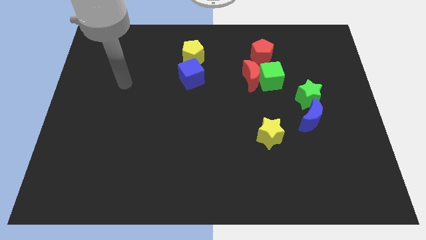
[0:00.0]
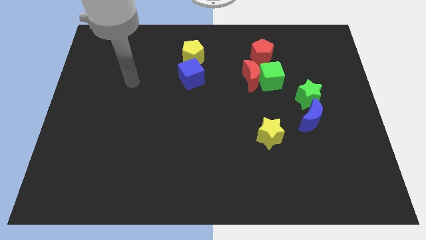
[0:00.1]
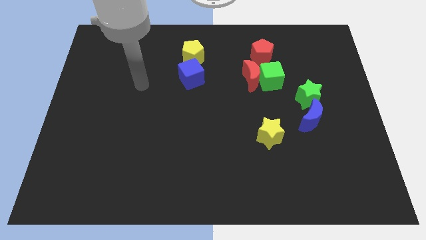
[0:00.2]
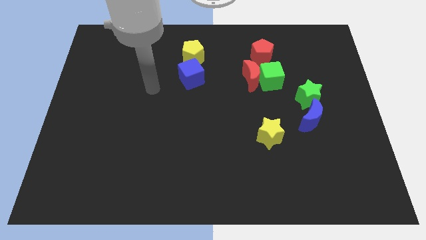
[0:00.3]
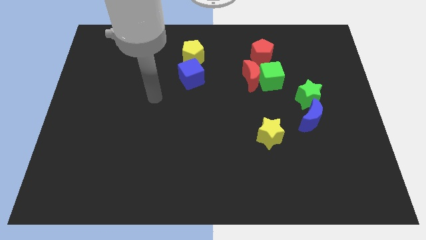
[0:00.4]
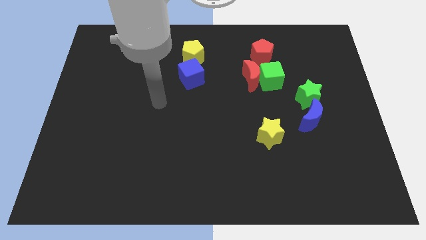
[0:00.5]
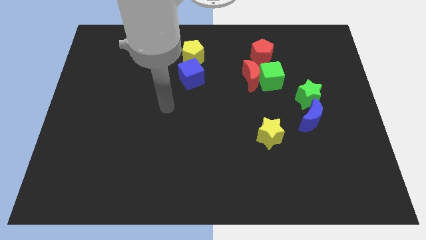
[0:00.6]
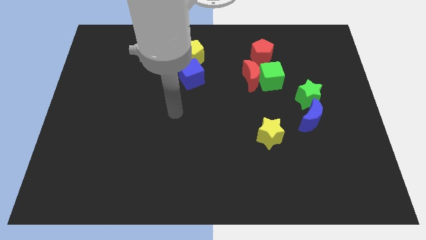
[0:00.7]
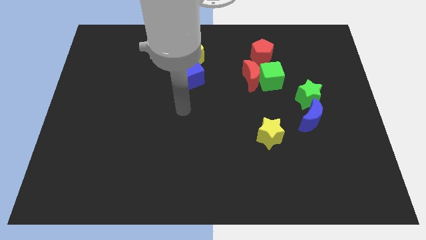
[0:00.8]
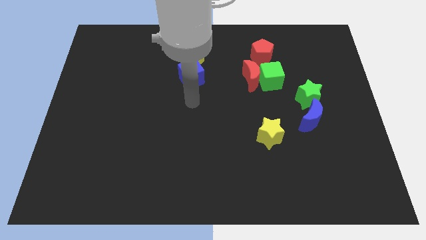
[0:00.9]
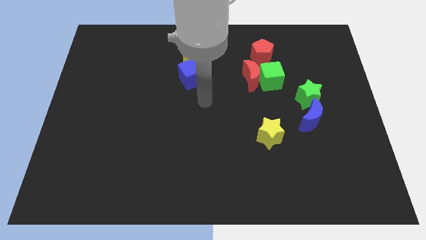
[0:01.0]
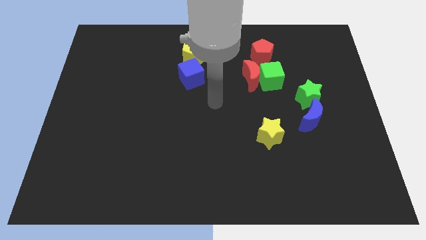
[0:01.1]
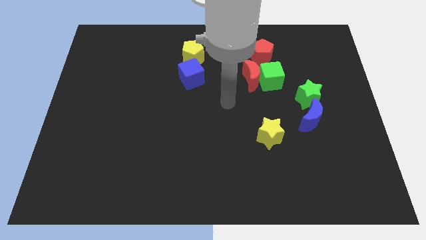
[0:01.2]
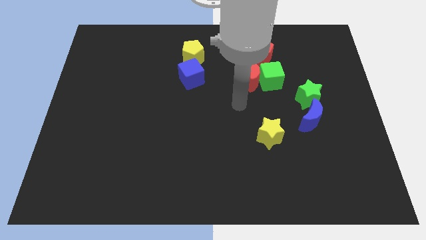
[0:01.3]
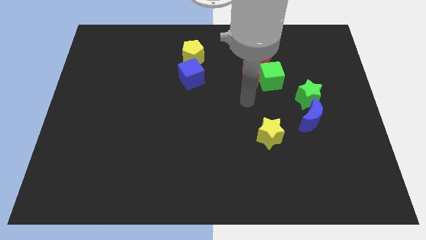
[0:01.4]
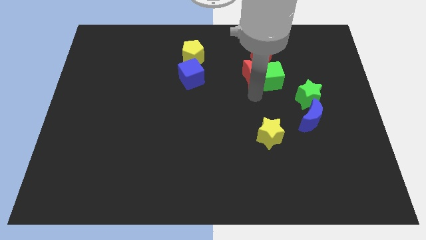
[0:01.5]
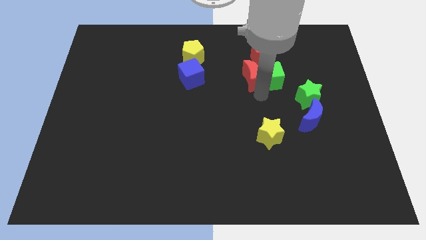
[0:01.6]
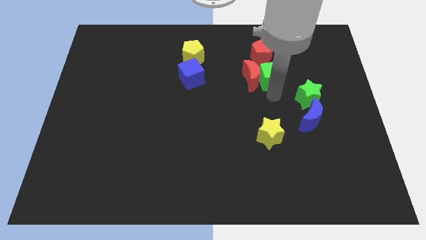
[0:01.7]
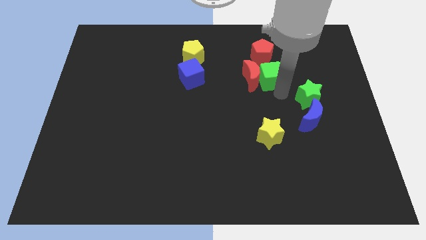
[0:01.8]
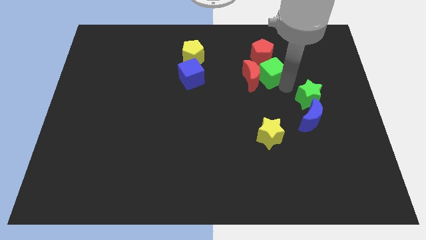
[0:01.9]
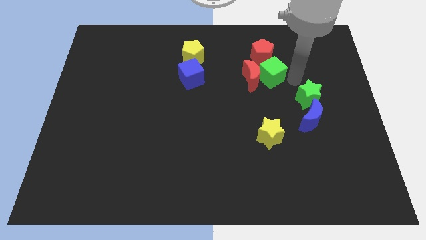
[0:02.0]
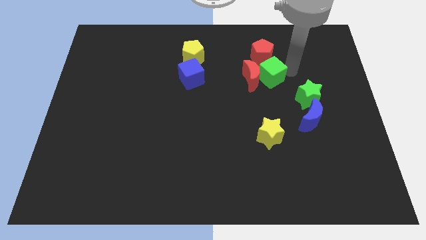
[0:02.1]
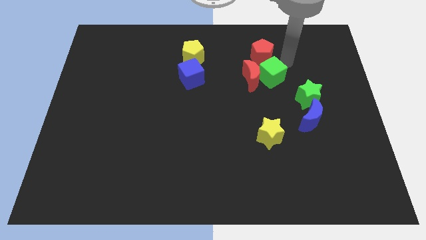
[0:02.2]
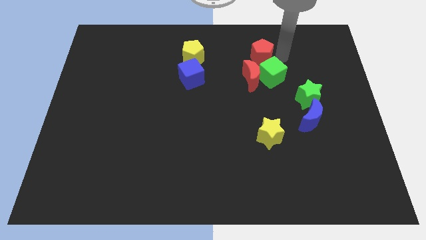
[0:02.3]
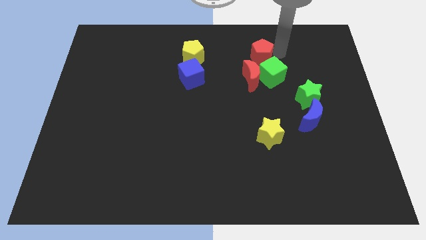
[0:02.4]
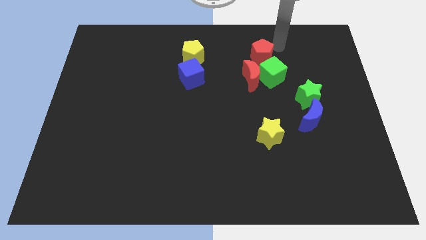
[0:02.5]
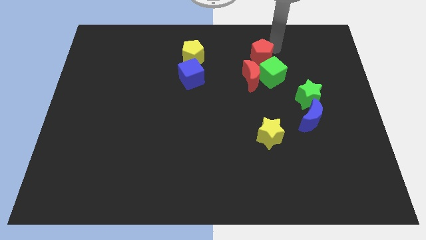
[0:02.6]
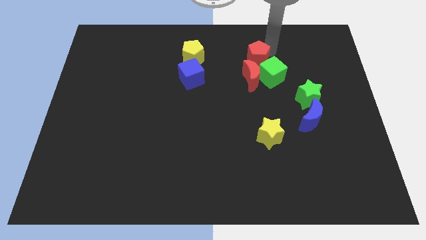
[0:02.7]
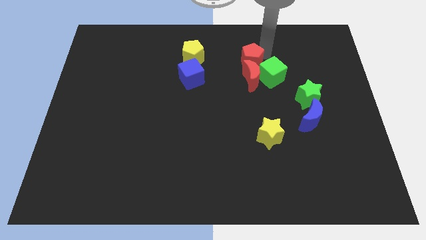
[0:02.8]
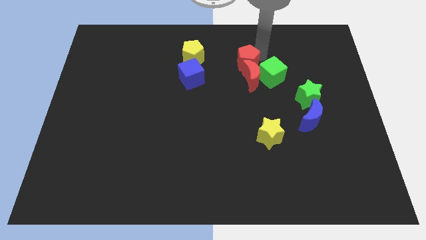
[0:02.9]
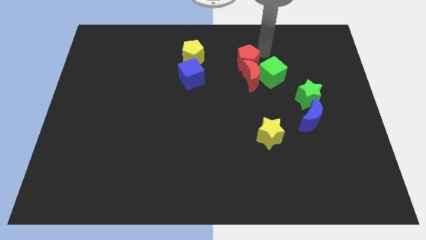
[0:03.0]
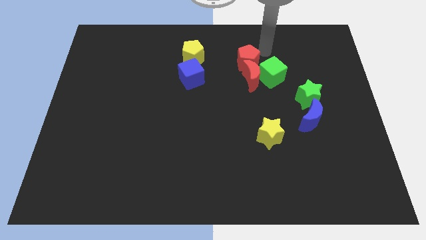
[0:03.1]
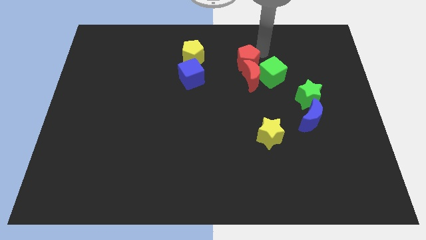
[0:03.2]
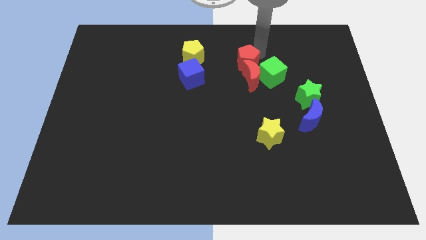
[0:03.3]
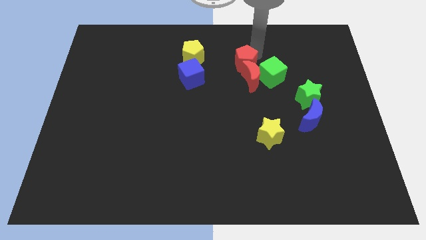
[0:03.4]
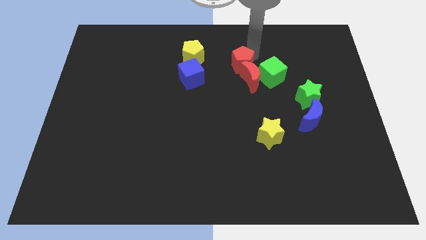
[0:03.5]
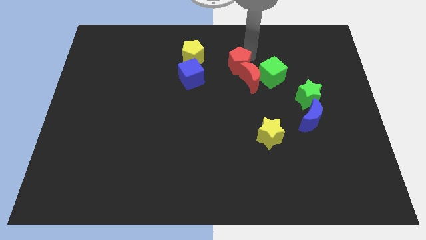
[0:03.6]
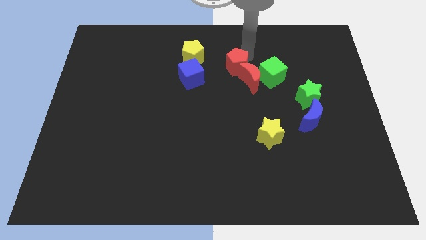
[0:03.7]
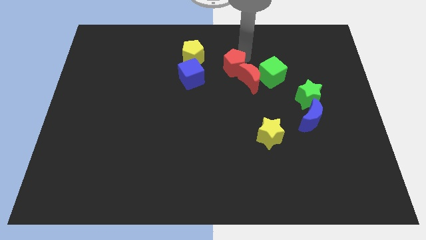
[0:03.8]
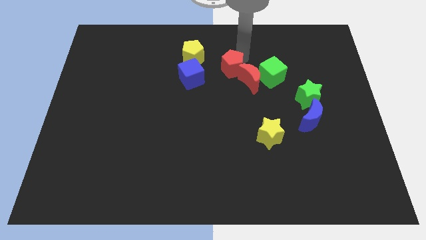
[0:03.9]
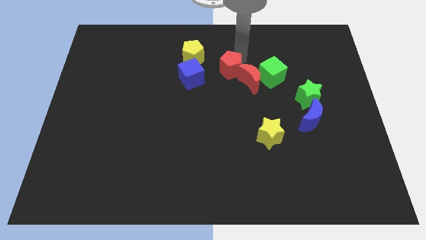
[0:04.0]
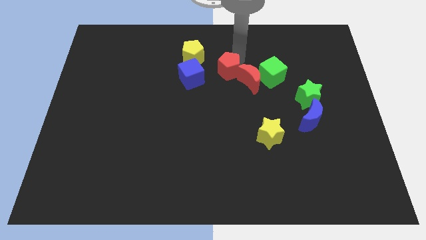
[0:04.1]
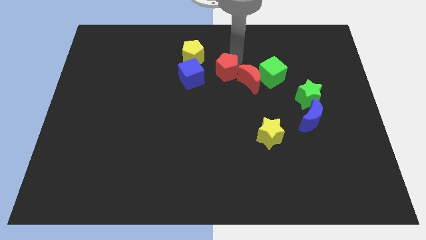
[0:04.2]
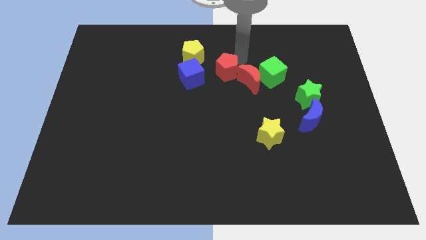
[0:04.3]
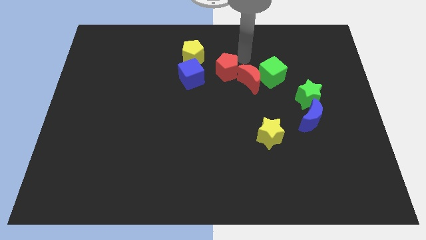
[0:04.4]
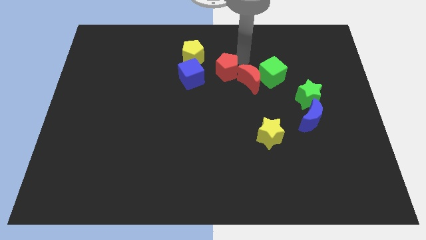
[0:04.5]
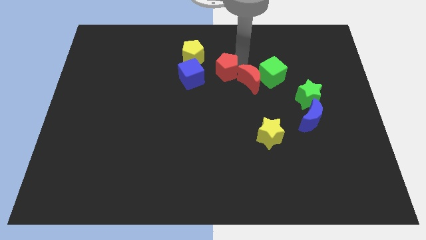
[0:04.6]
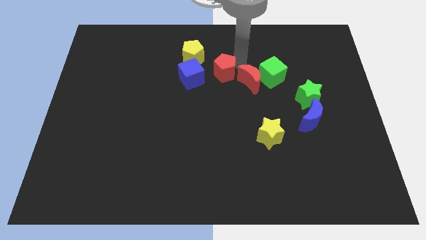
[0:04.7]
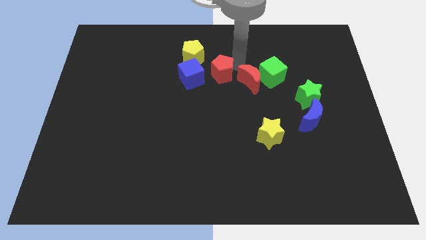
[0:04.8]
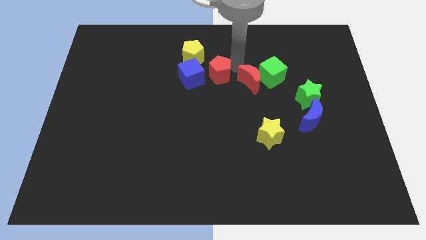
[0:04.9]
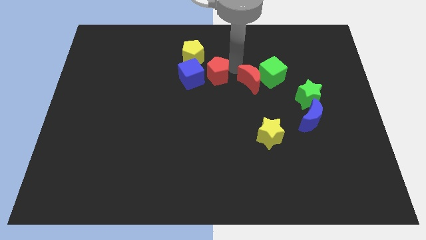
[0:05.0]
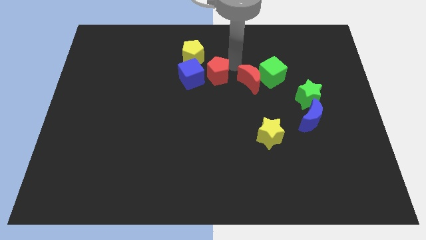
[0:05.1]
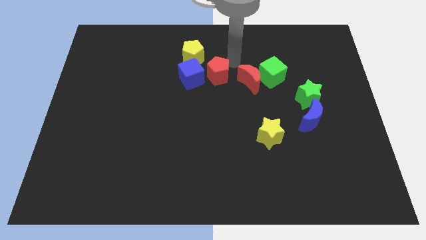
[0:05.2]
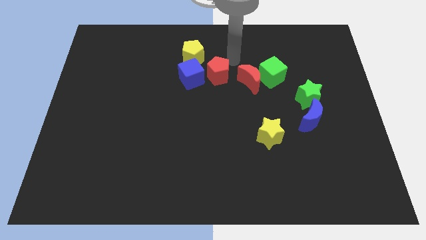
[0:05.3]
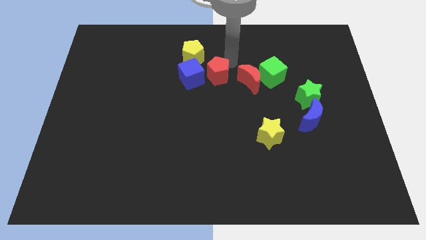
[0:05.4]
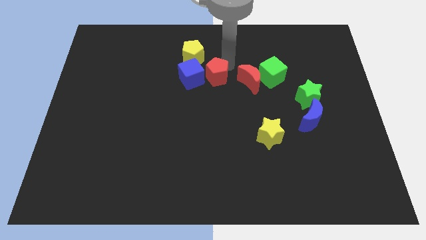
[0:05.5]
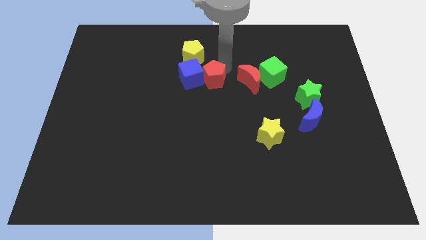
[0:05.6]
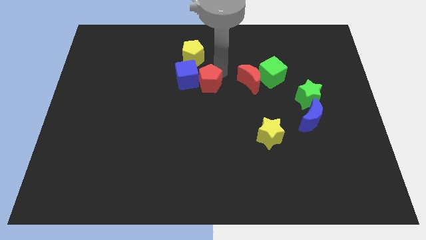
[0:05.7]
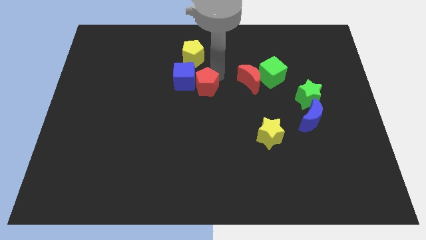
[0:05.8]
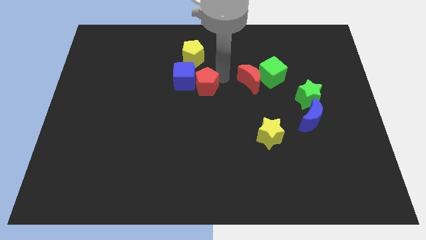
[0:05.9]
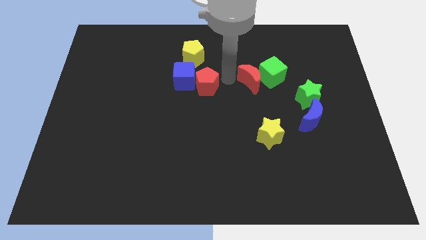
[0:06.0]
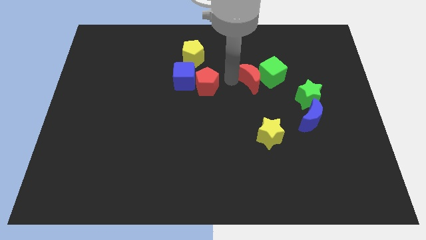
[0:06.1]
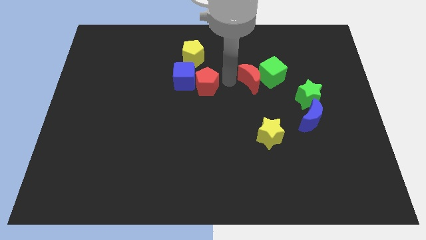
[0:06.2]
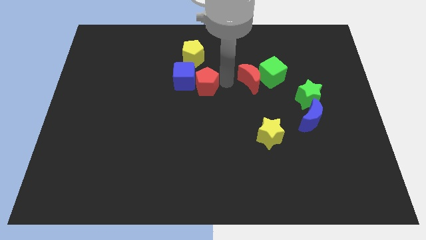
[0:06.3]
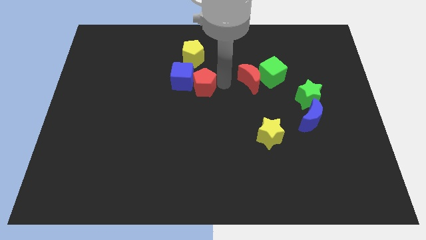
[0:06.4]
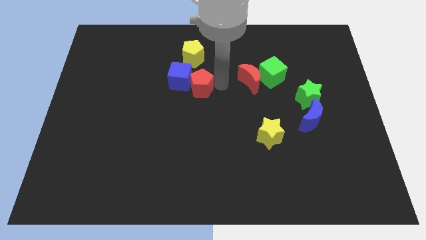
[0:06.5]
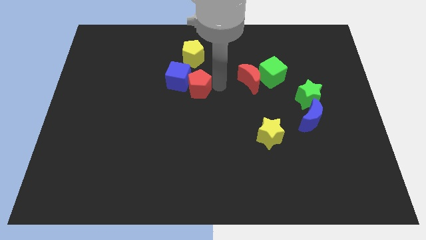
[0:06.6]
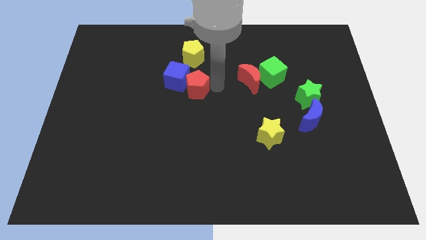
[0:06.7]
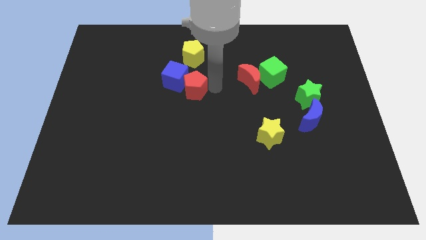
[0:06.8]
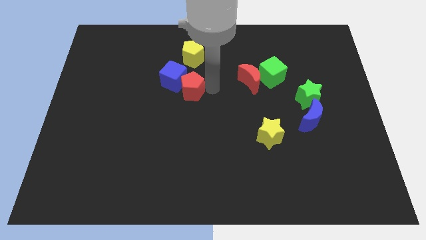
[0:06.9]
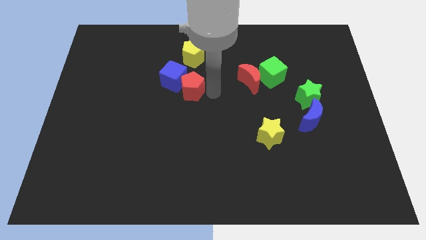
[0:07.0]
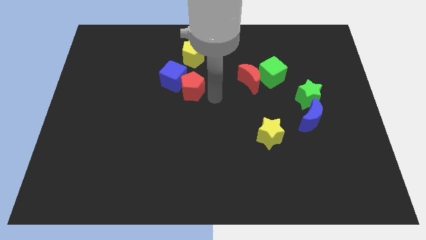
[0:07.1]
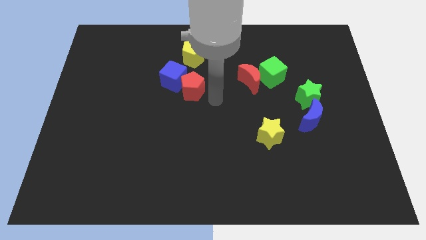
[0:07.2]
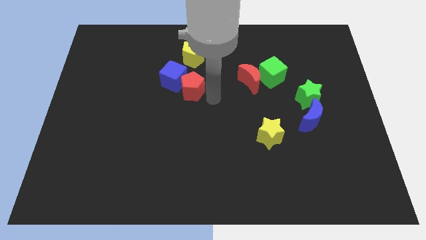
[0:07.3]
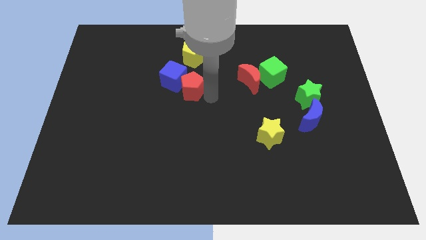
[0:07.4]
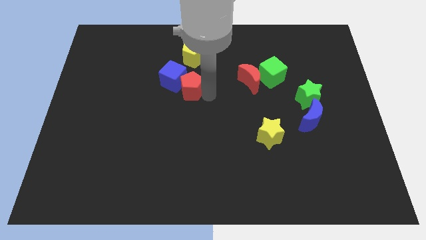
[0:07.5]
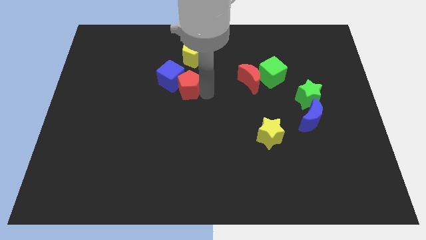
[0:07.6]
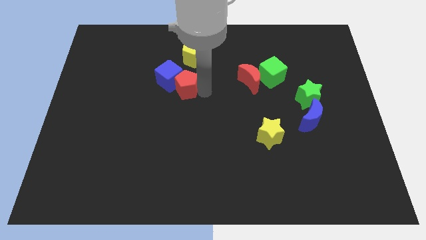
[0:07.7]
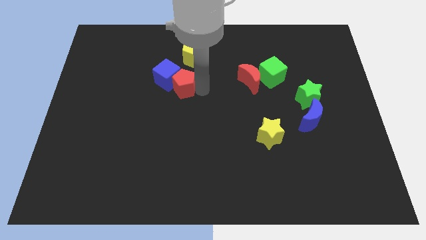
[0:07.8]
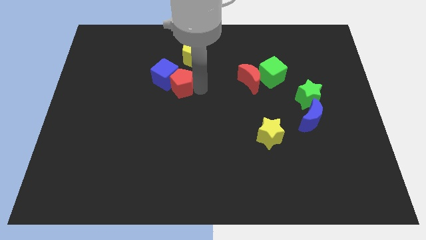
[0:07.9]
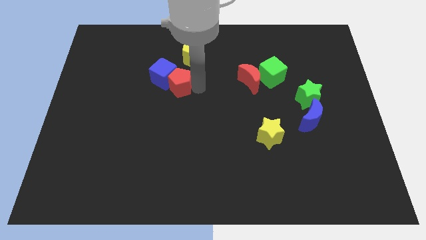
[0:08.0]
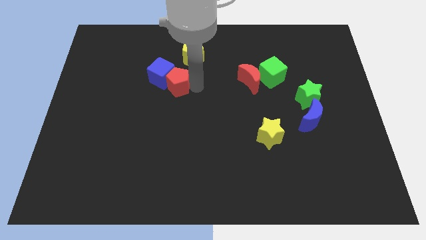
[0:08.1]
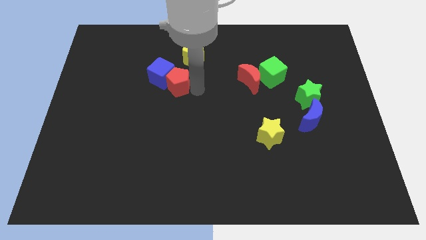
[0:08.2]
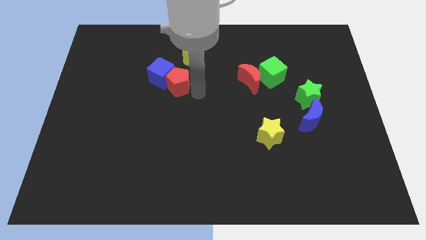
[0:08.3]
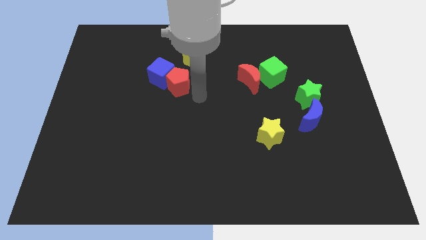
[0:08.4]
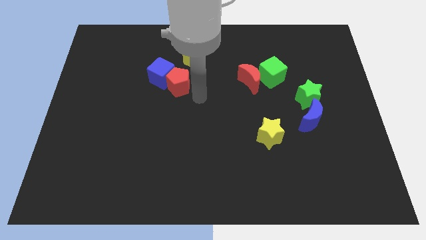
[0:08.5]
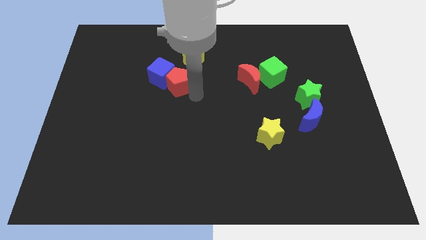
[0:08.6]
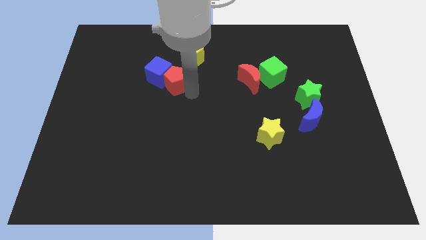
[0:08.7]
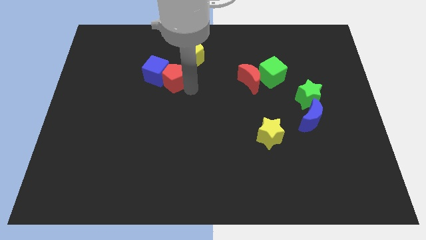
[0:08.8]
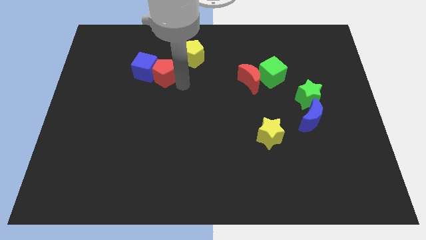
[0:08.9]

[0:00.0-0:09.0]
move the red pentagon to the left
